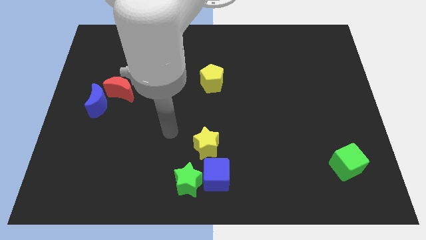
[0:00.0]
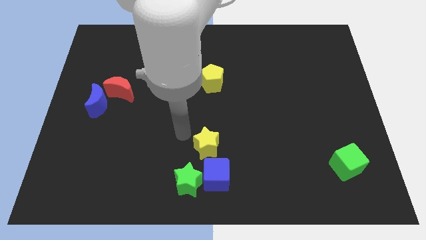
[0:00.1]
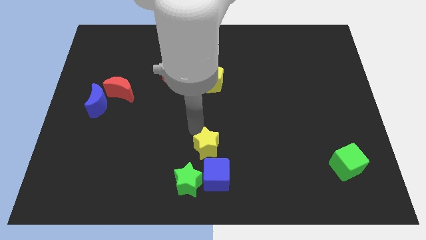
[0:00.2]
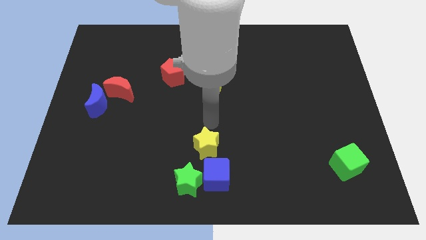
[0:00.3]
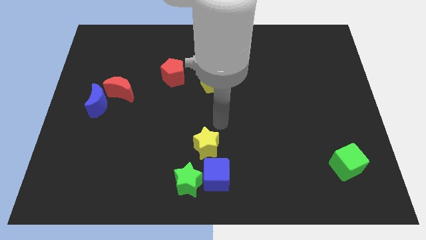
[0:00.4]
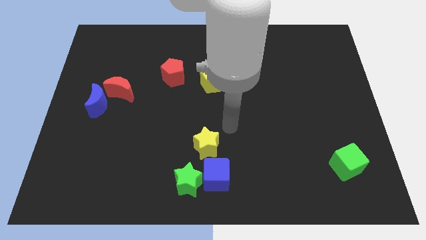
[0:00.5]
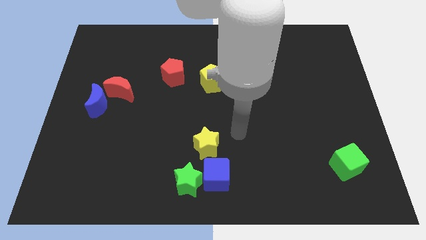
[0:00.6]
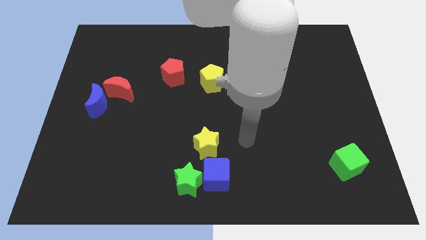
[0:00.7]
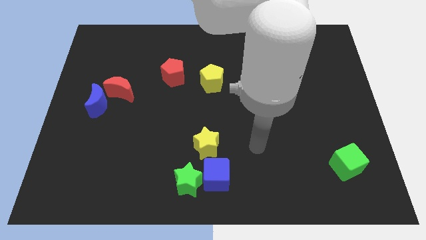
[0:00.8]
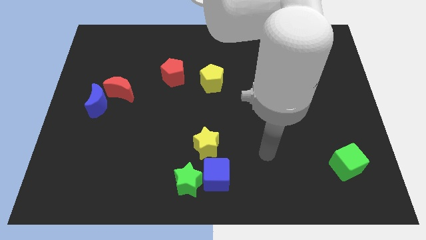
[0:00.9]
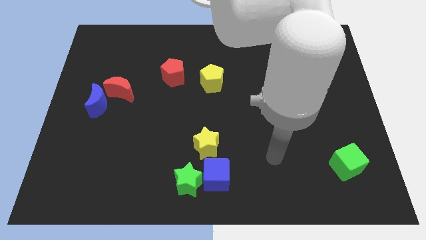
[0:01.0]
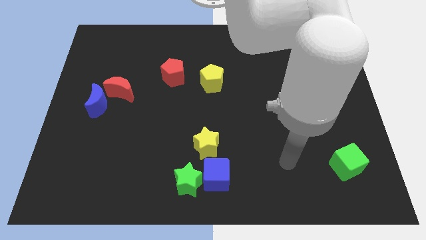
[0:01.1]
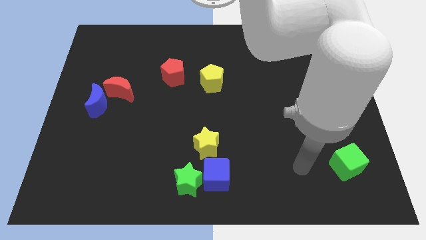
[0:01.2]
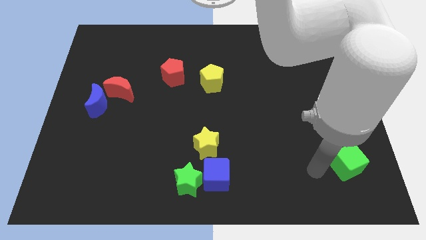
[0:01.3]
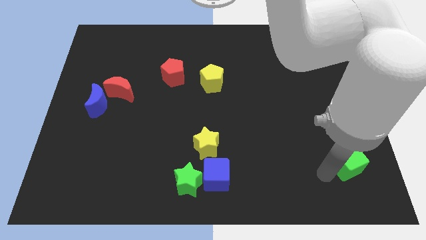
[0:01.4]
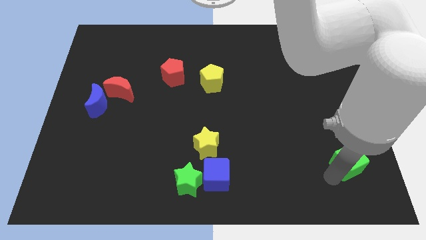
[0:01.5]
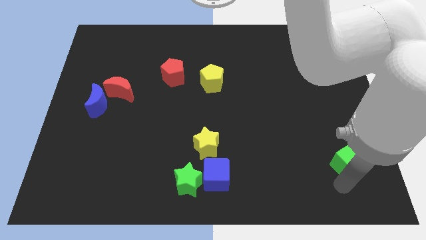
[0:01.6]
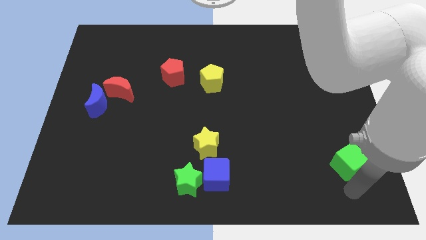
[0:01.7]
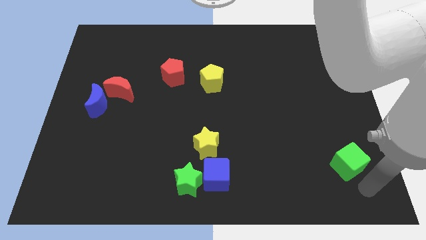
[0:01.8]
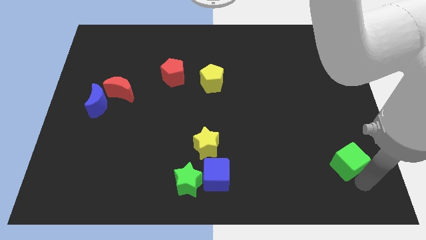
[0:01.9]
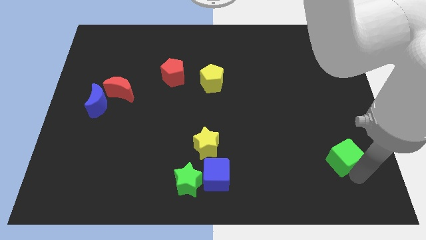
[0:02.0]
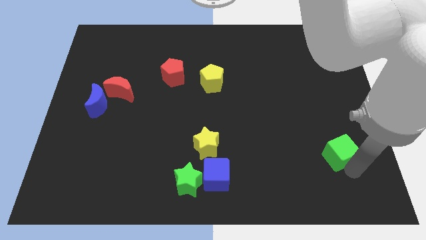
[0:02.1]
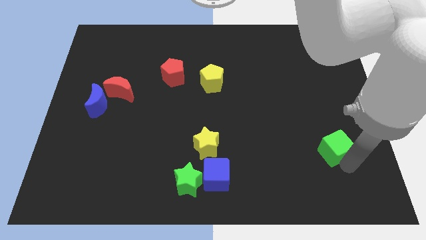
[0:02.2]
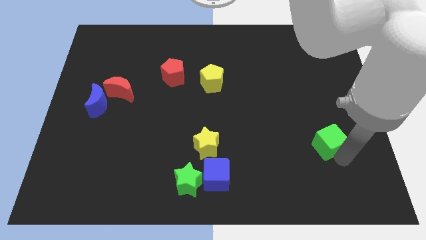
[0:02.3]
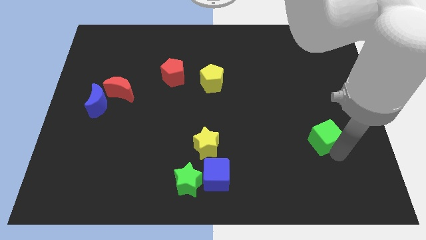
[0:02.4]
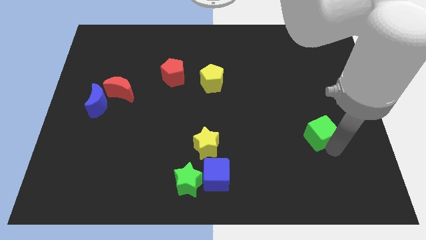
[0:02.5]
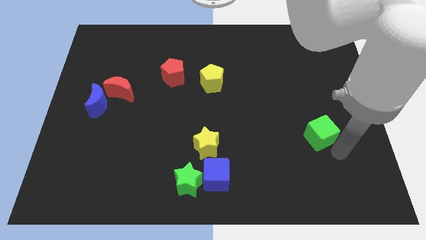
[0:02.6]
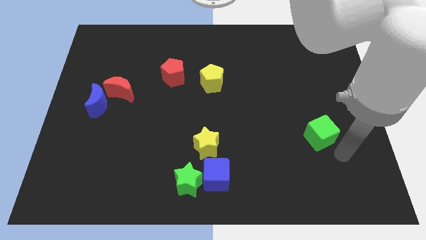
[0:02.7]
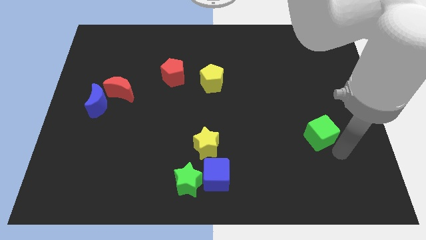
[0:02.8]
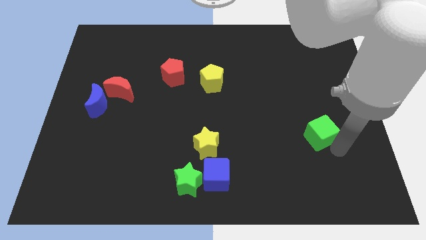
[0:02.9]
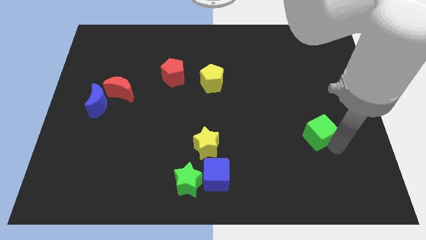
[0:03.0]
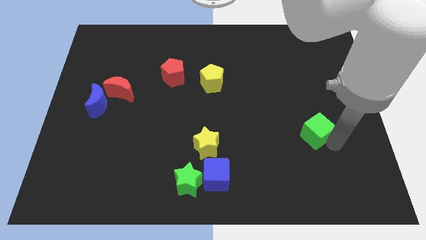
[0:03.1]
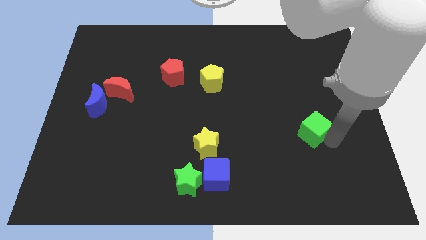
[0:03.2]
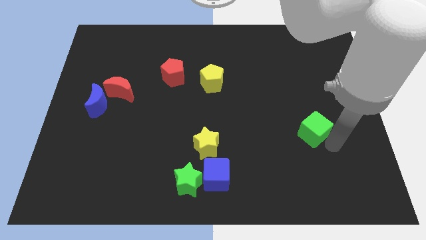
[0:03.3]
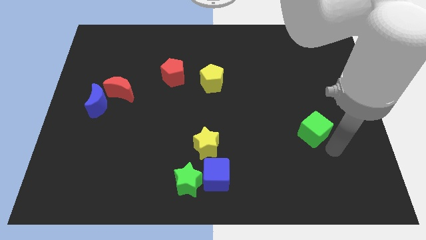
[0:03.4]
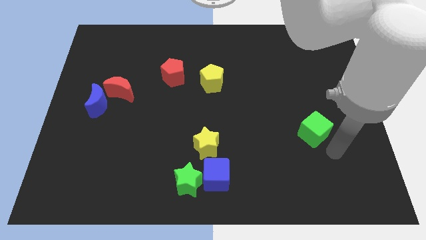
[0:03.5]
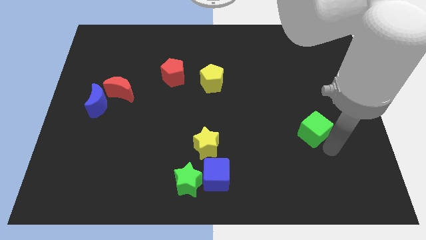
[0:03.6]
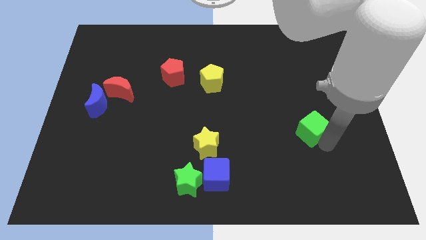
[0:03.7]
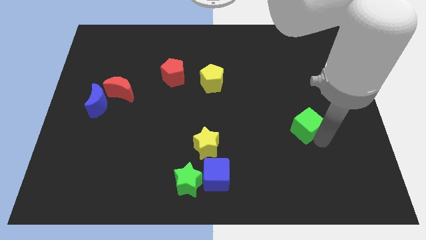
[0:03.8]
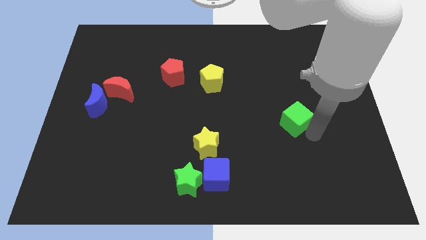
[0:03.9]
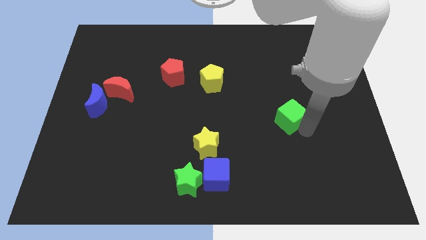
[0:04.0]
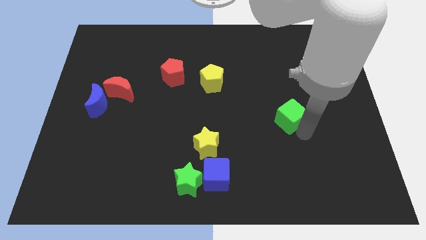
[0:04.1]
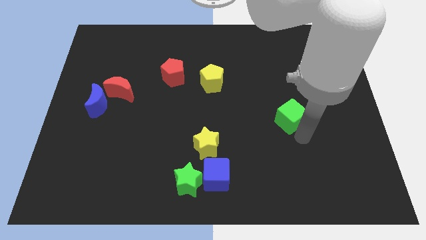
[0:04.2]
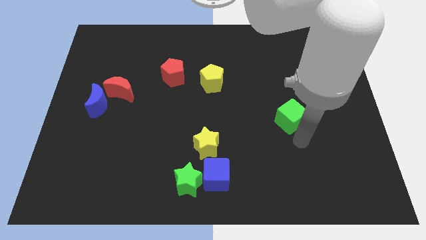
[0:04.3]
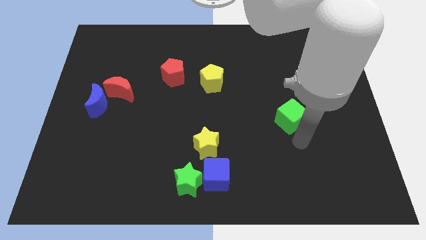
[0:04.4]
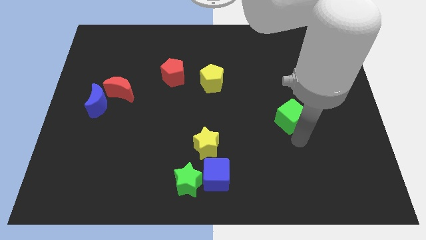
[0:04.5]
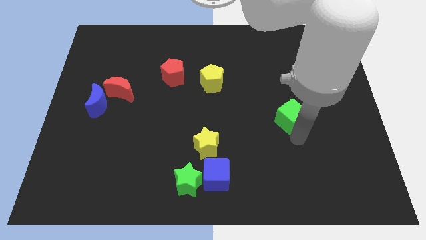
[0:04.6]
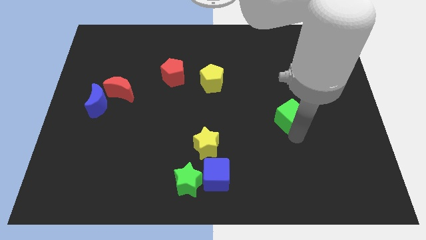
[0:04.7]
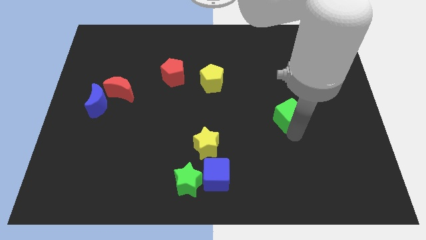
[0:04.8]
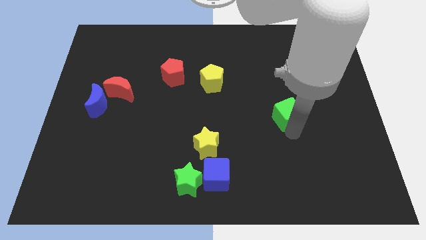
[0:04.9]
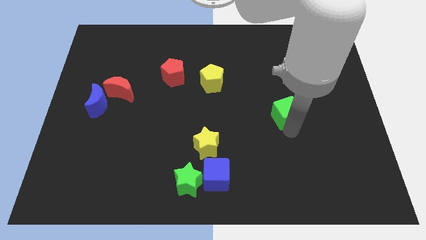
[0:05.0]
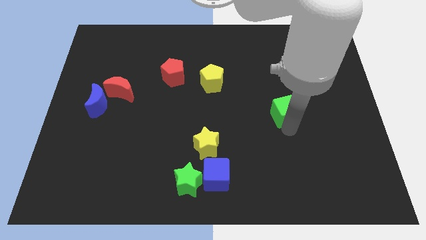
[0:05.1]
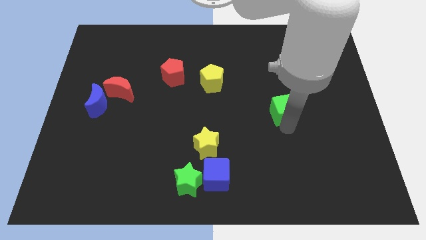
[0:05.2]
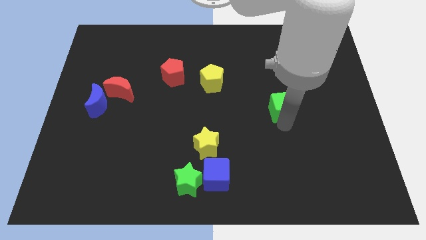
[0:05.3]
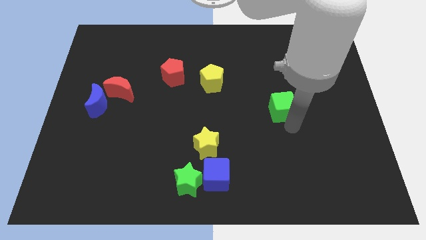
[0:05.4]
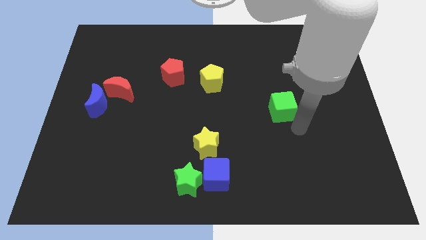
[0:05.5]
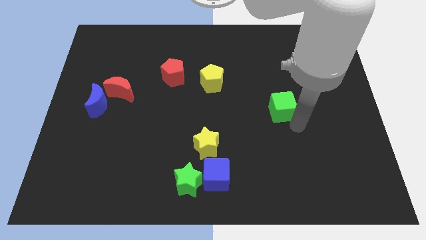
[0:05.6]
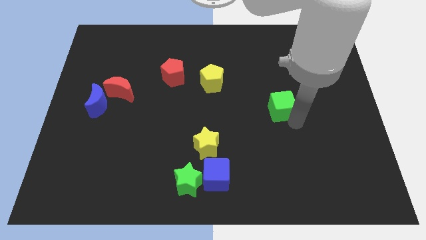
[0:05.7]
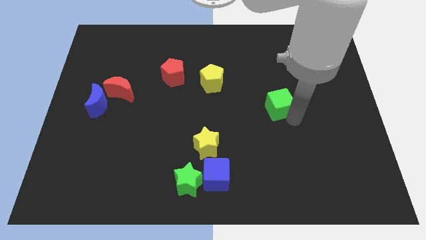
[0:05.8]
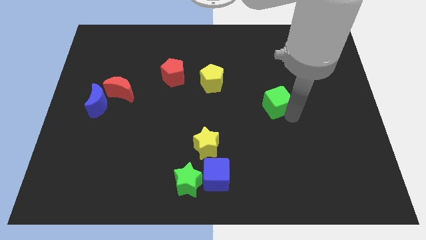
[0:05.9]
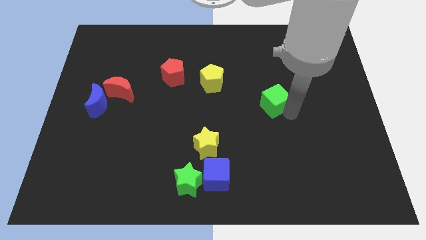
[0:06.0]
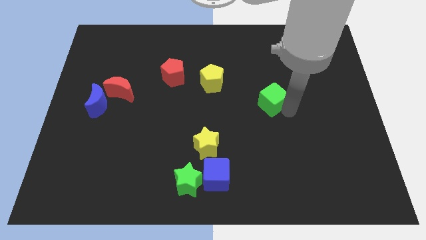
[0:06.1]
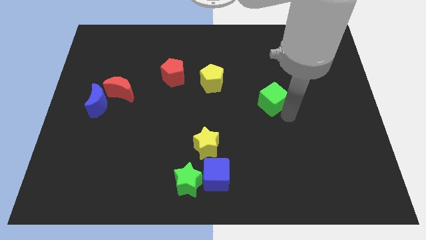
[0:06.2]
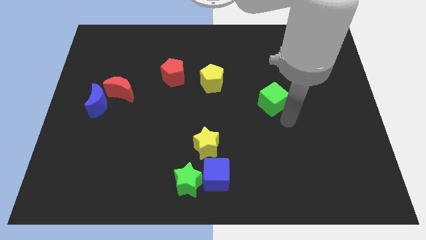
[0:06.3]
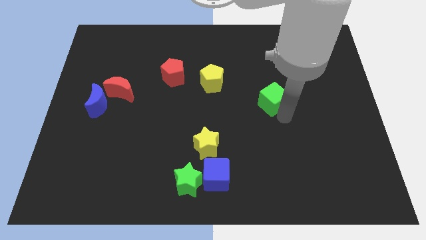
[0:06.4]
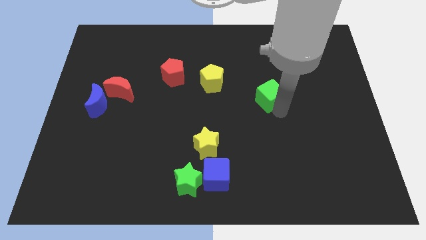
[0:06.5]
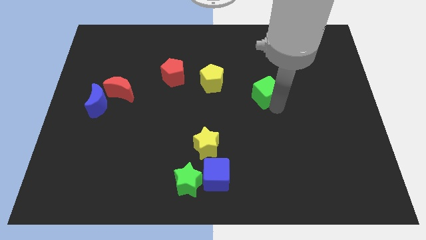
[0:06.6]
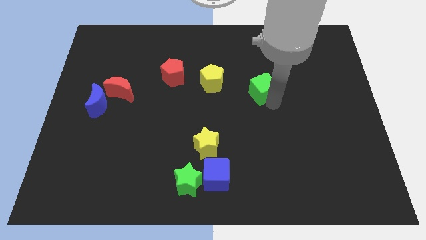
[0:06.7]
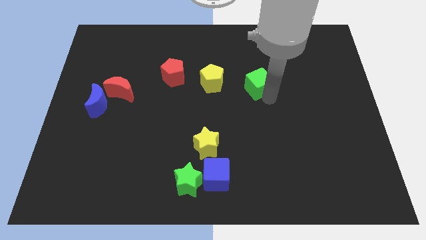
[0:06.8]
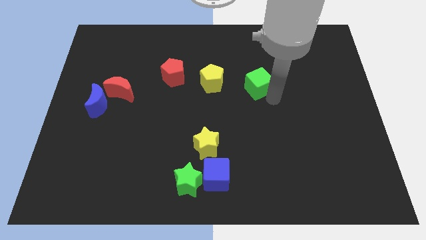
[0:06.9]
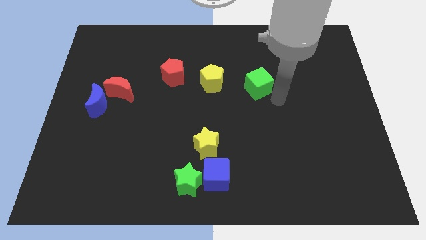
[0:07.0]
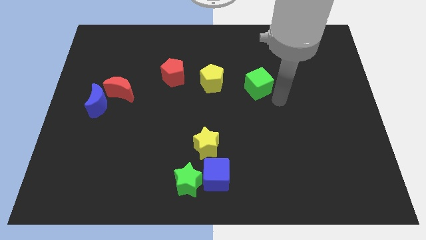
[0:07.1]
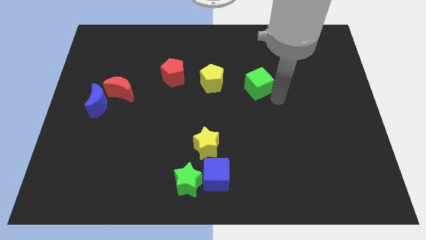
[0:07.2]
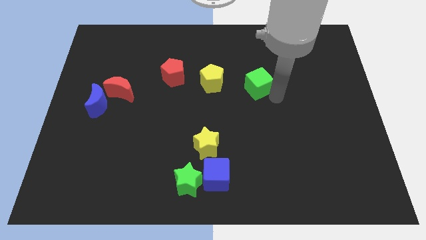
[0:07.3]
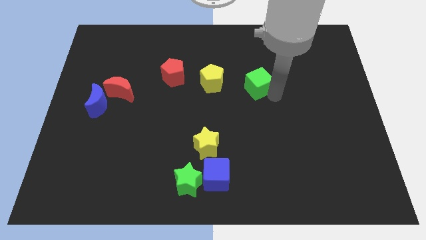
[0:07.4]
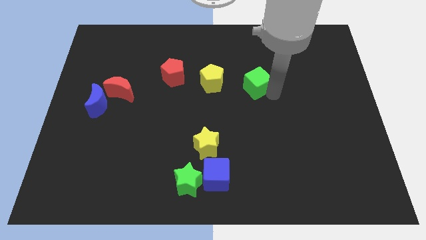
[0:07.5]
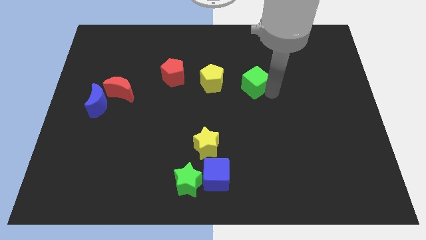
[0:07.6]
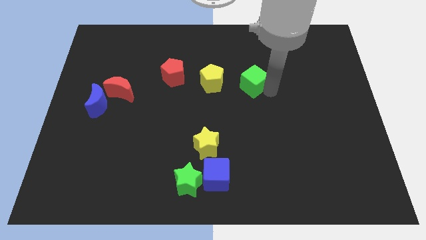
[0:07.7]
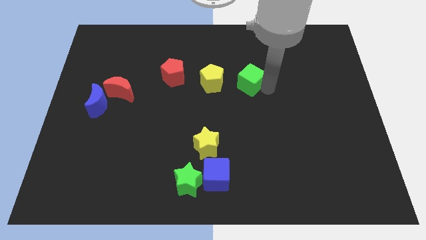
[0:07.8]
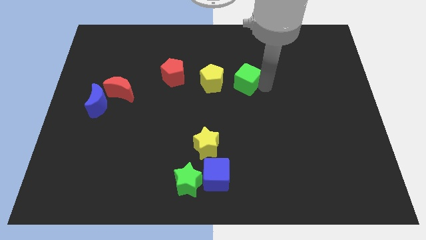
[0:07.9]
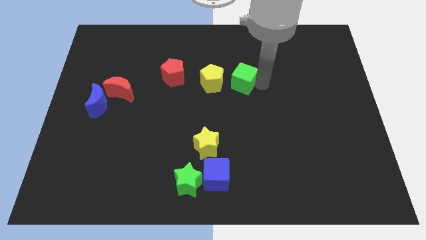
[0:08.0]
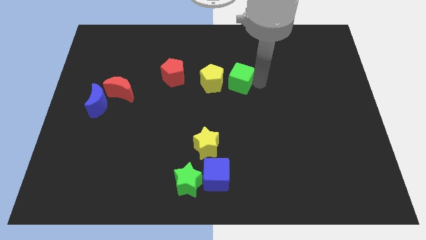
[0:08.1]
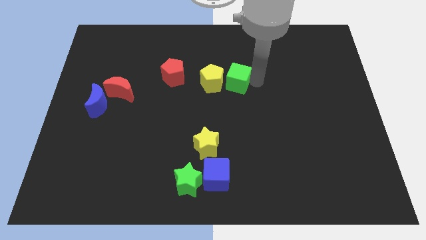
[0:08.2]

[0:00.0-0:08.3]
put the green cube right of the red pentagon
